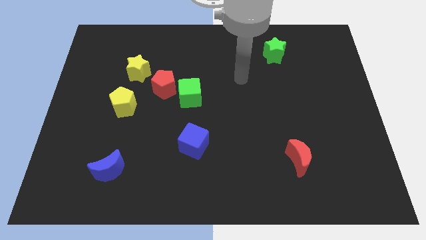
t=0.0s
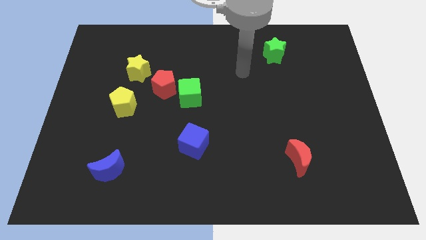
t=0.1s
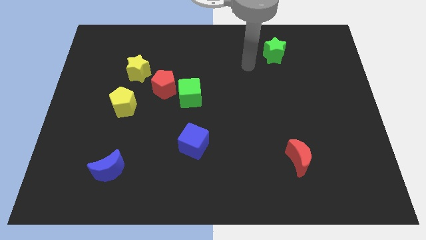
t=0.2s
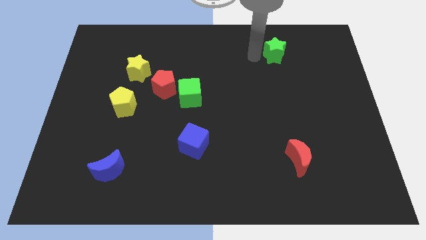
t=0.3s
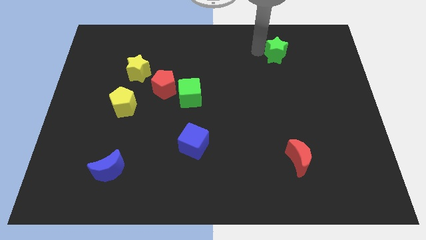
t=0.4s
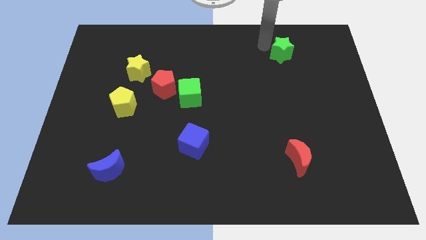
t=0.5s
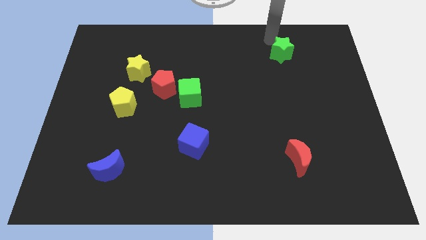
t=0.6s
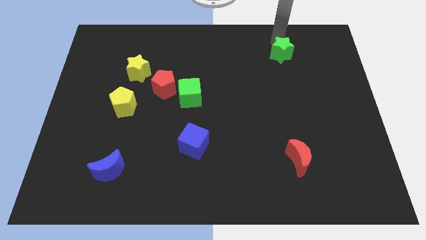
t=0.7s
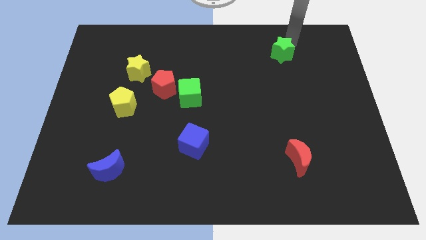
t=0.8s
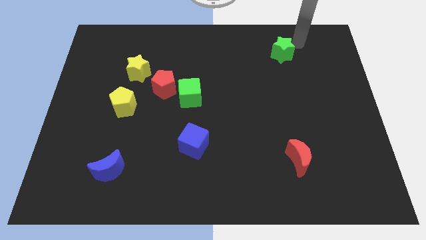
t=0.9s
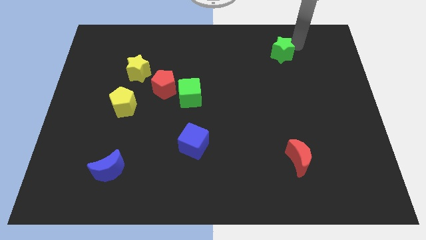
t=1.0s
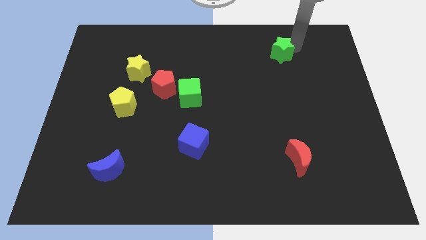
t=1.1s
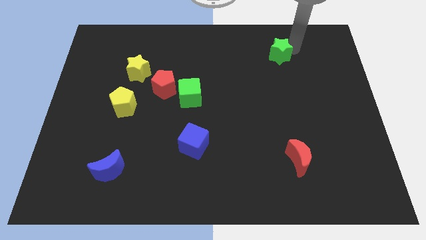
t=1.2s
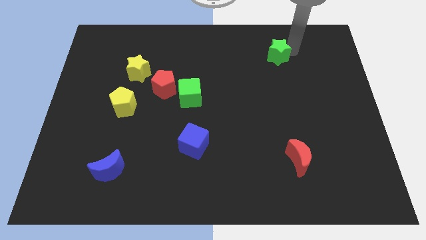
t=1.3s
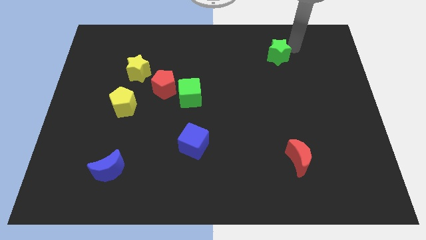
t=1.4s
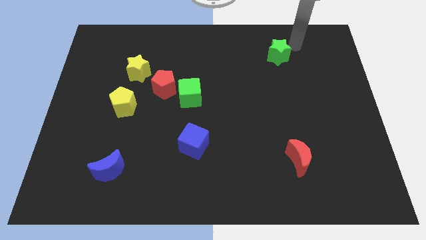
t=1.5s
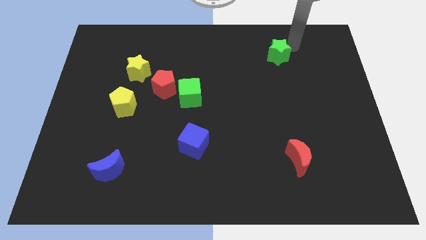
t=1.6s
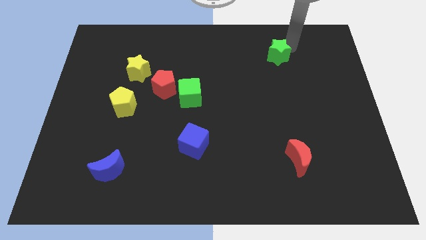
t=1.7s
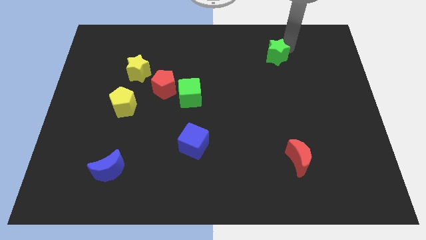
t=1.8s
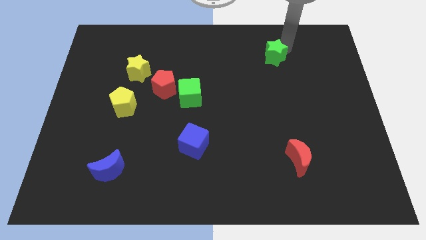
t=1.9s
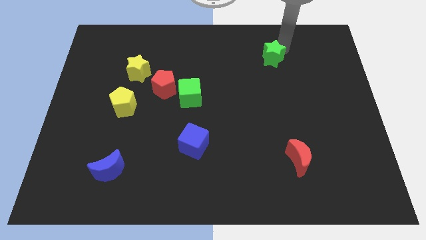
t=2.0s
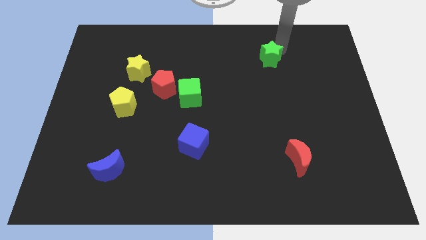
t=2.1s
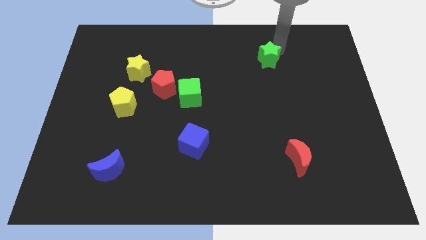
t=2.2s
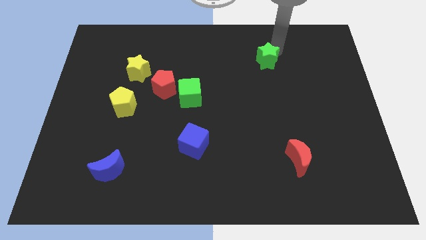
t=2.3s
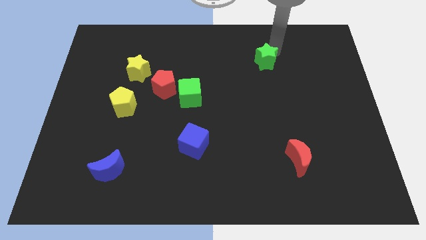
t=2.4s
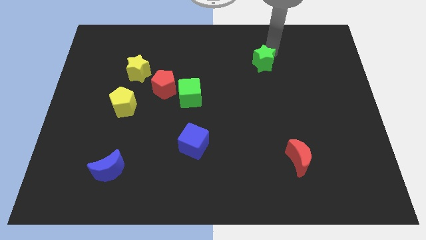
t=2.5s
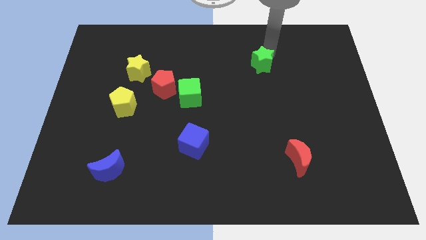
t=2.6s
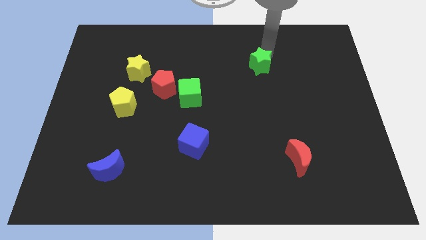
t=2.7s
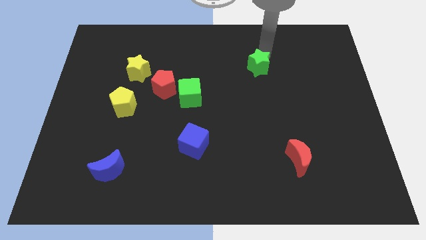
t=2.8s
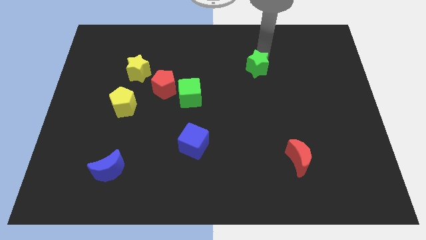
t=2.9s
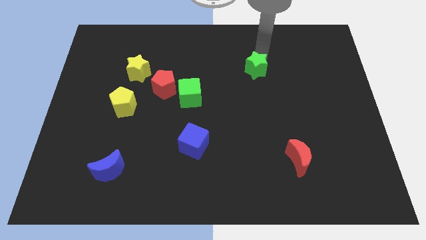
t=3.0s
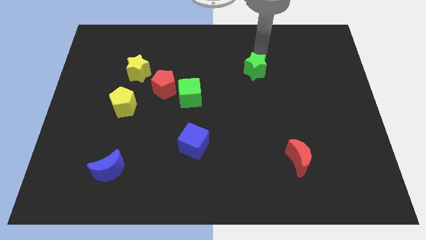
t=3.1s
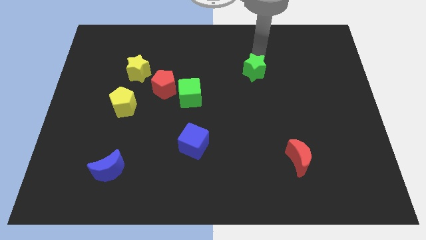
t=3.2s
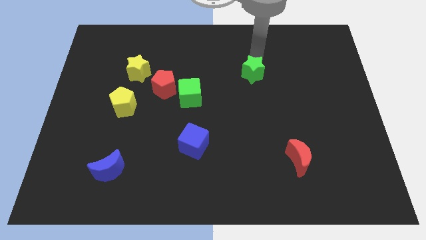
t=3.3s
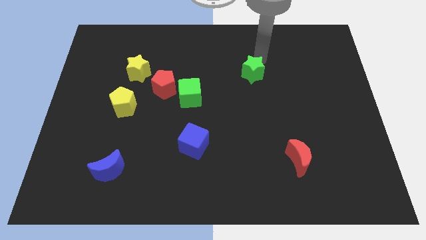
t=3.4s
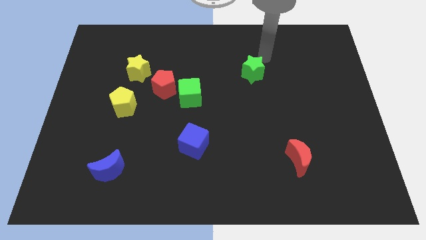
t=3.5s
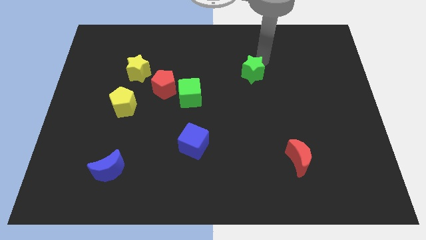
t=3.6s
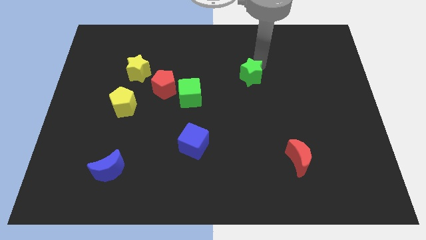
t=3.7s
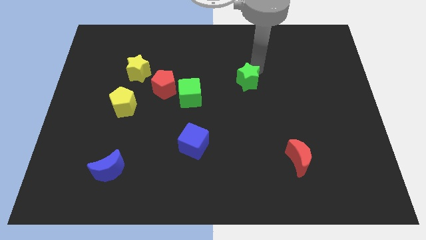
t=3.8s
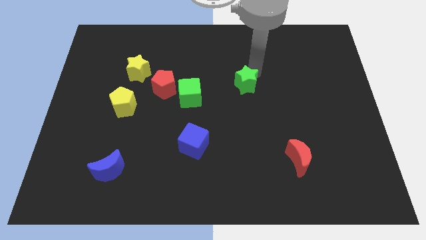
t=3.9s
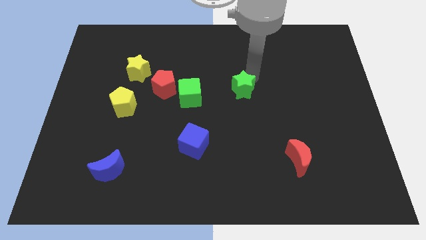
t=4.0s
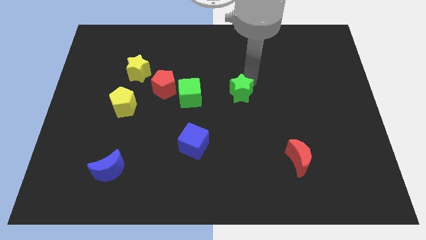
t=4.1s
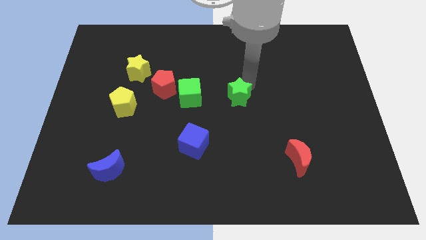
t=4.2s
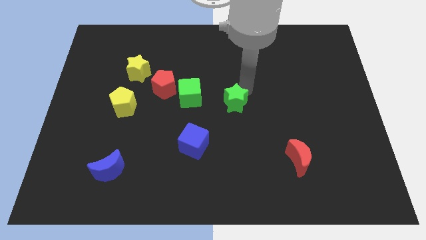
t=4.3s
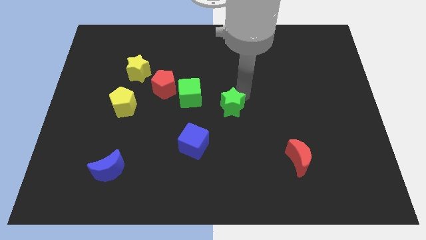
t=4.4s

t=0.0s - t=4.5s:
move the green star down and then left

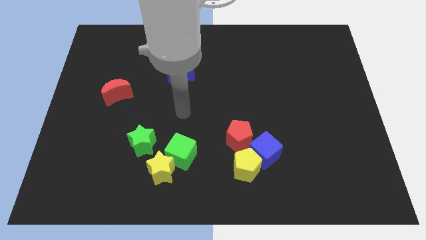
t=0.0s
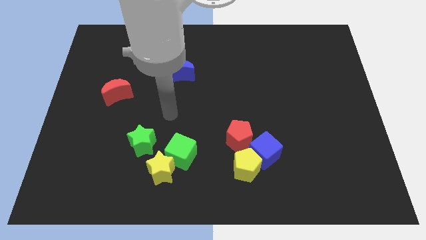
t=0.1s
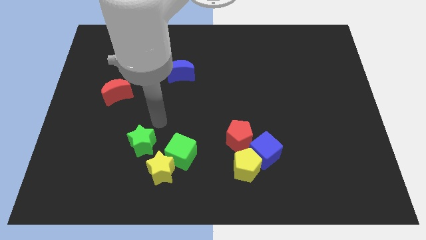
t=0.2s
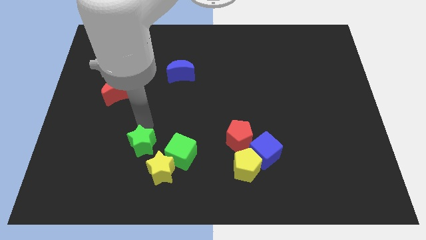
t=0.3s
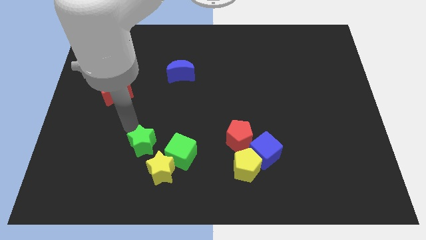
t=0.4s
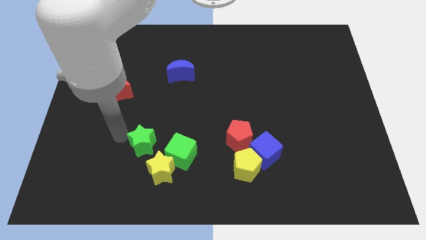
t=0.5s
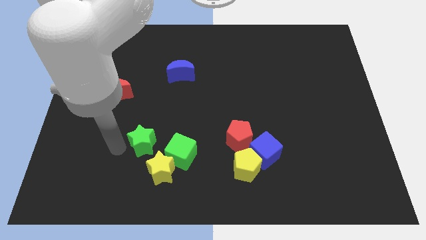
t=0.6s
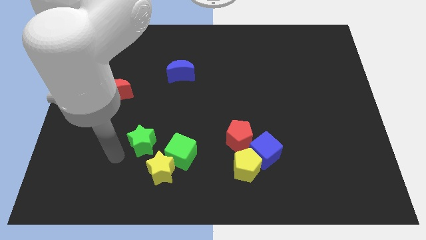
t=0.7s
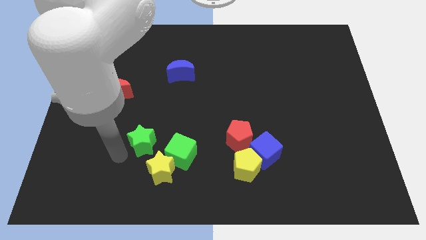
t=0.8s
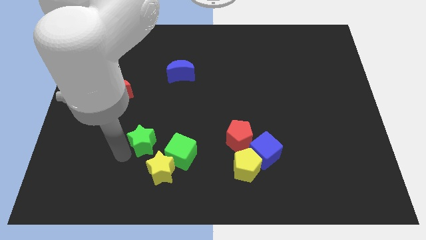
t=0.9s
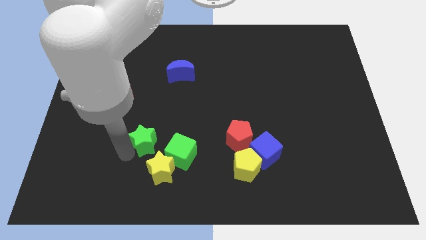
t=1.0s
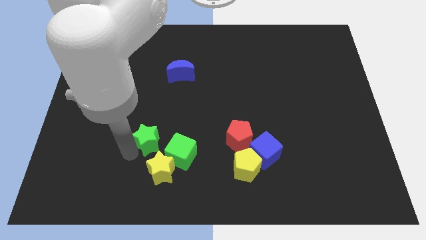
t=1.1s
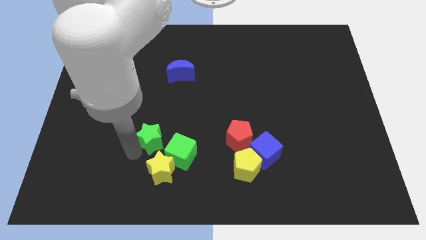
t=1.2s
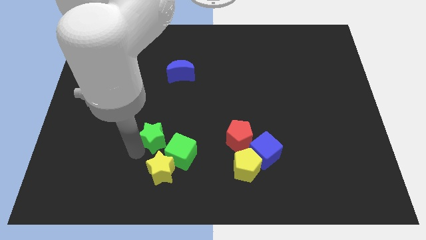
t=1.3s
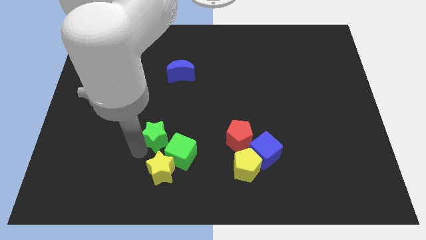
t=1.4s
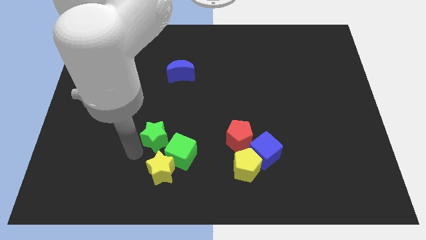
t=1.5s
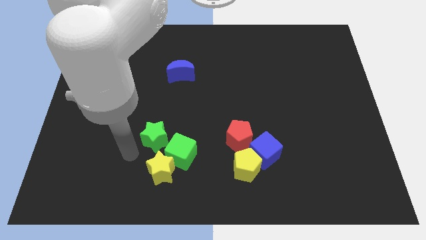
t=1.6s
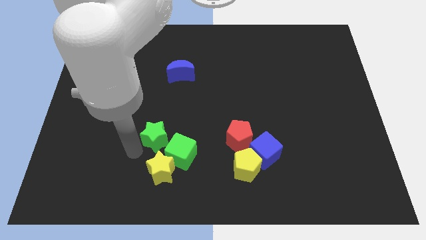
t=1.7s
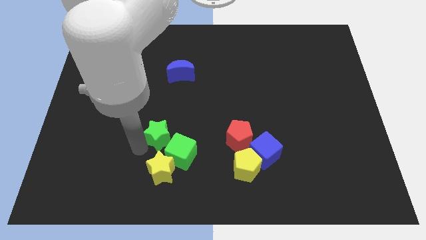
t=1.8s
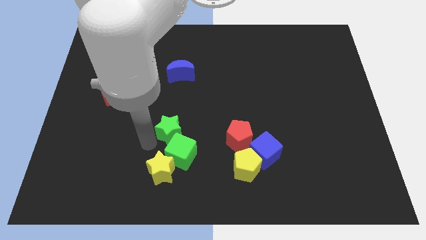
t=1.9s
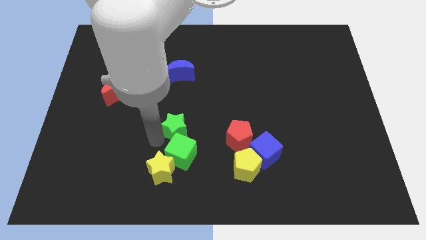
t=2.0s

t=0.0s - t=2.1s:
push the green star upwards and to the right a little

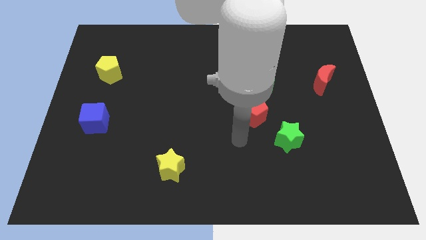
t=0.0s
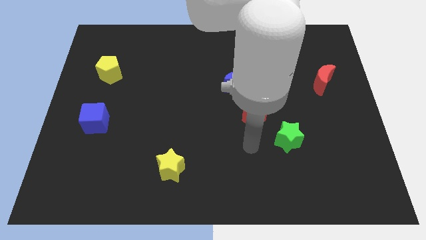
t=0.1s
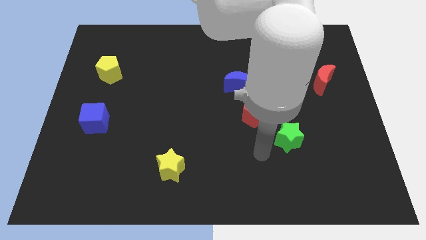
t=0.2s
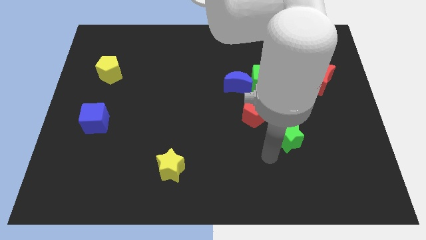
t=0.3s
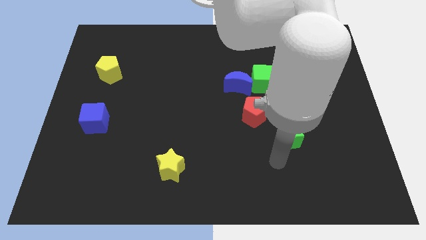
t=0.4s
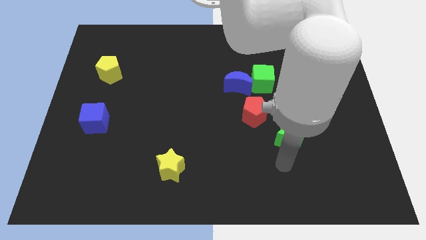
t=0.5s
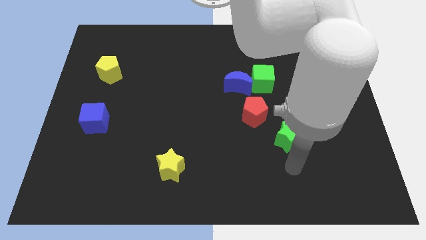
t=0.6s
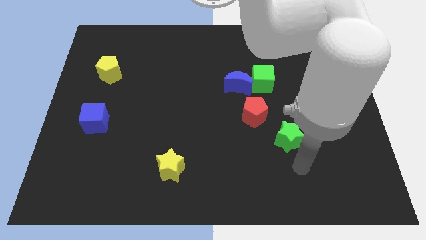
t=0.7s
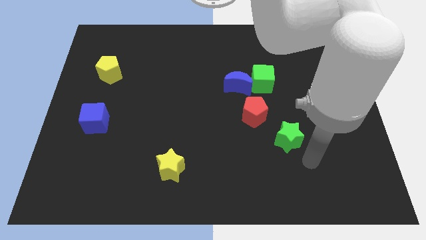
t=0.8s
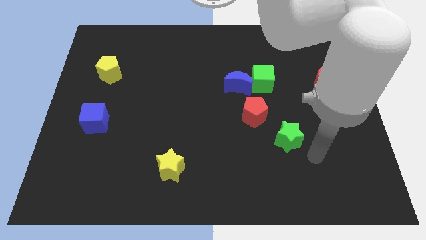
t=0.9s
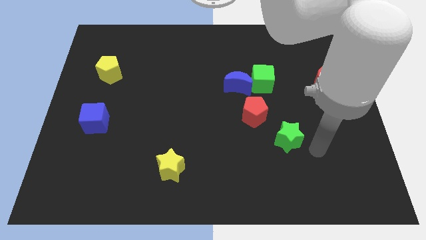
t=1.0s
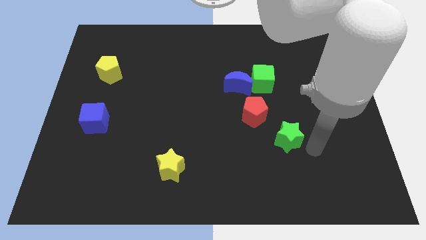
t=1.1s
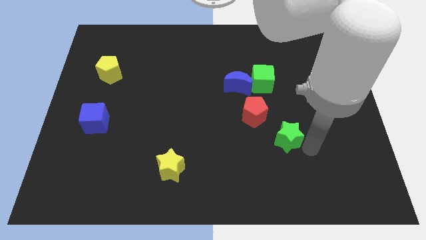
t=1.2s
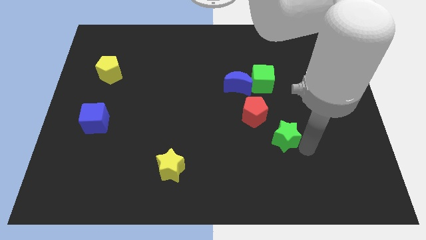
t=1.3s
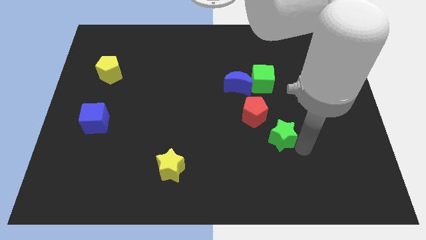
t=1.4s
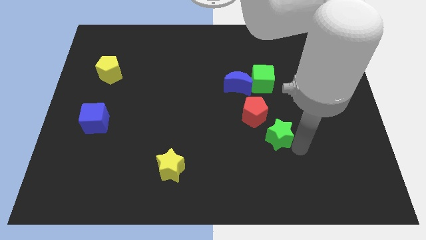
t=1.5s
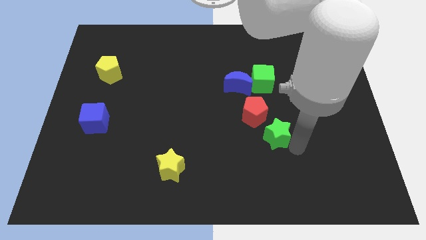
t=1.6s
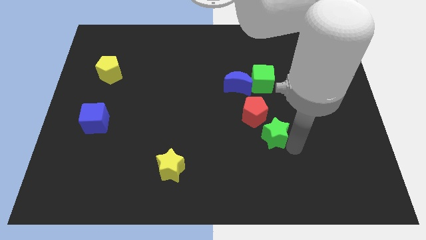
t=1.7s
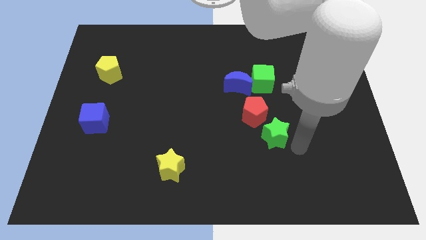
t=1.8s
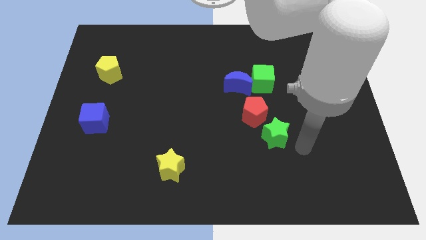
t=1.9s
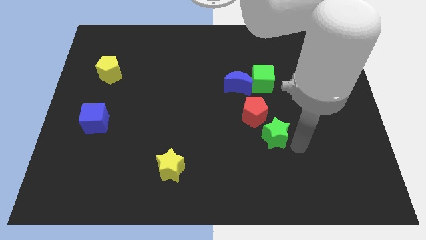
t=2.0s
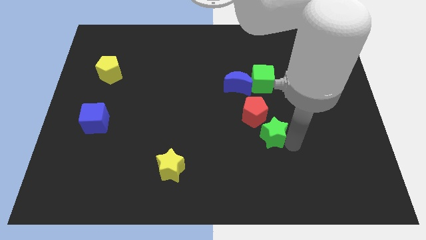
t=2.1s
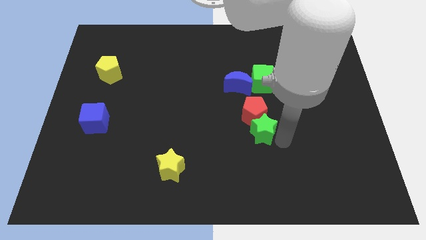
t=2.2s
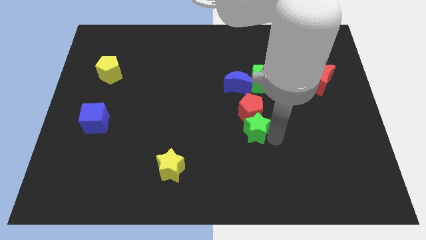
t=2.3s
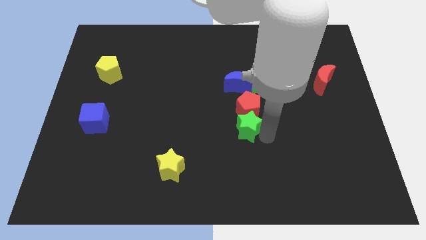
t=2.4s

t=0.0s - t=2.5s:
slightly push the green star up and to the left
